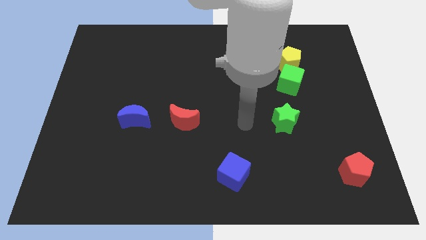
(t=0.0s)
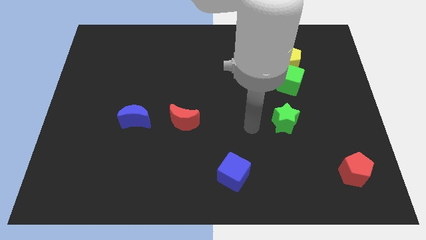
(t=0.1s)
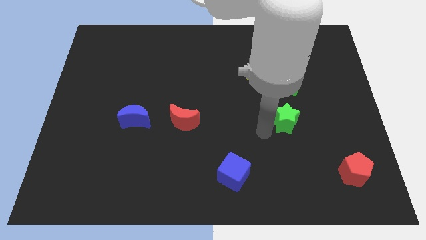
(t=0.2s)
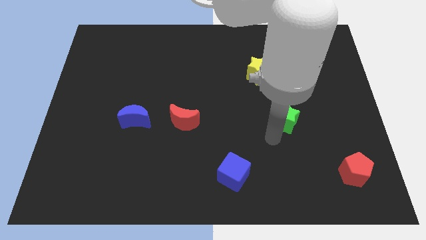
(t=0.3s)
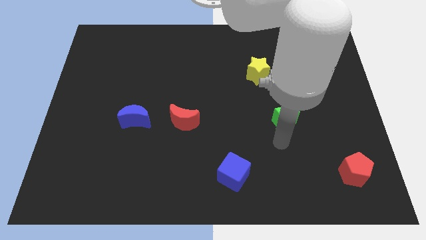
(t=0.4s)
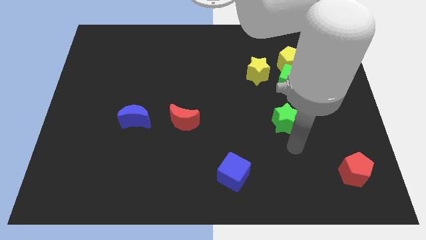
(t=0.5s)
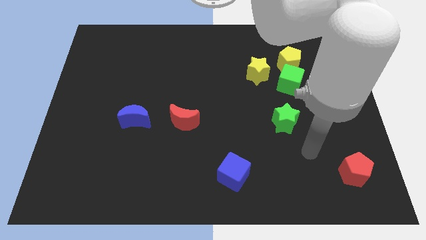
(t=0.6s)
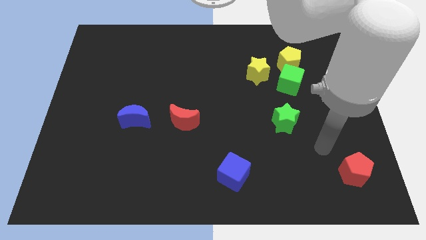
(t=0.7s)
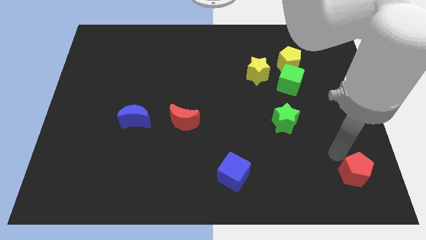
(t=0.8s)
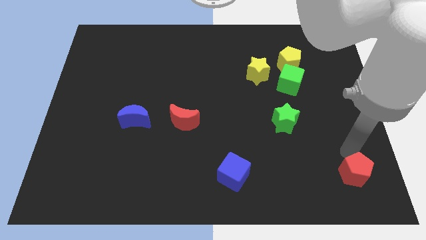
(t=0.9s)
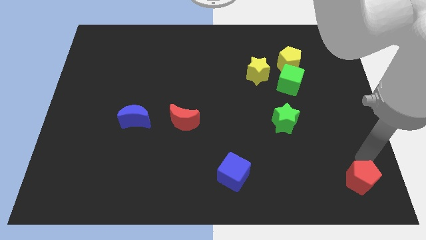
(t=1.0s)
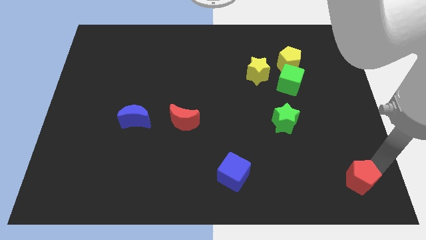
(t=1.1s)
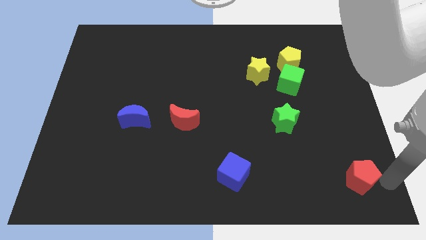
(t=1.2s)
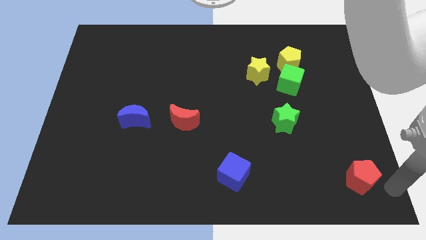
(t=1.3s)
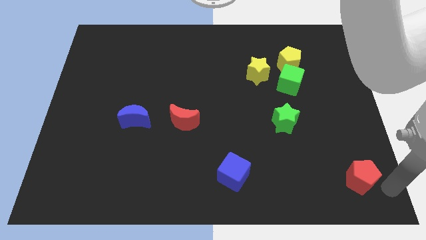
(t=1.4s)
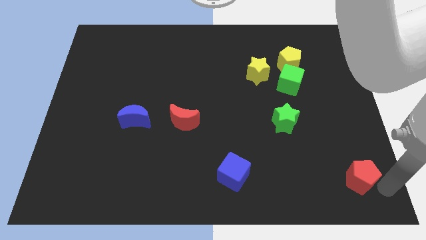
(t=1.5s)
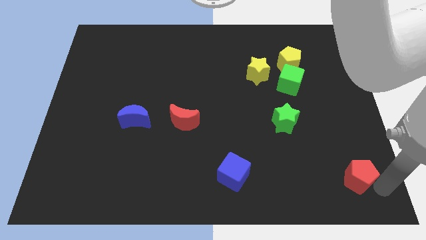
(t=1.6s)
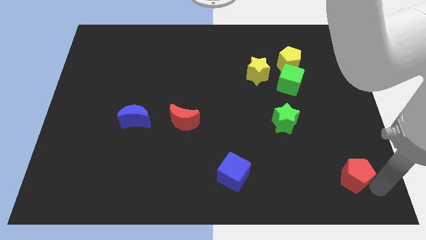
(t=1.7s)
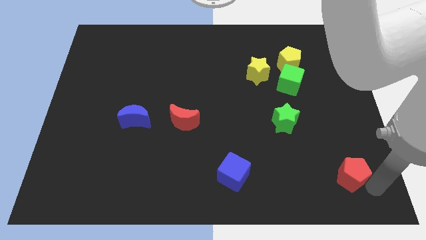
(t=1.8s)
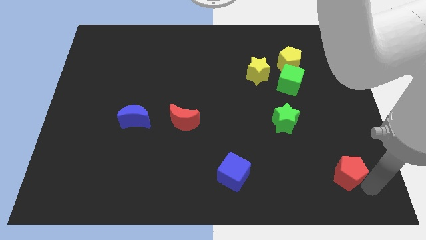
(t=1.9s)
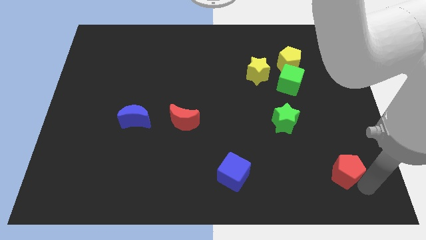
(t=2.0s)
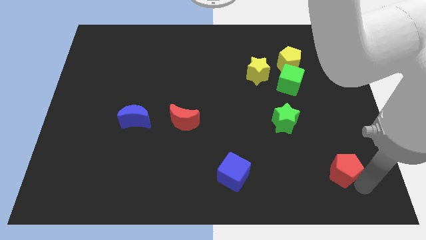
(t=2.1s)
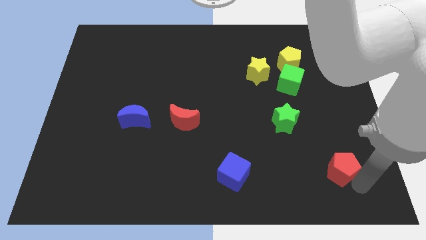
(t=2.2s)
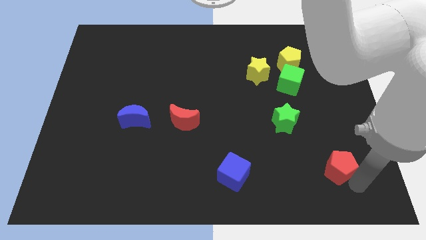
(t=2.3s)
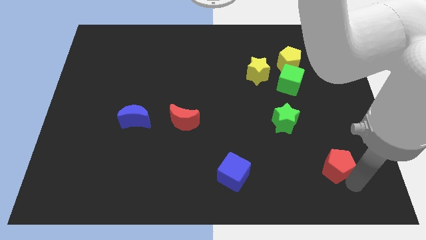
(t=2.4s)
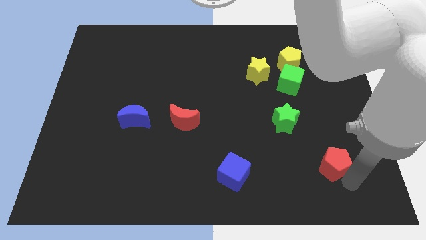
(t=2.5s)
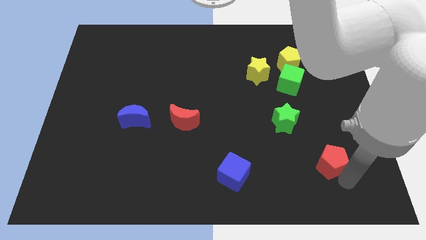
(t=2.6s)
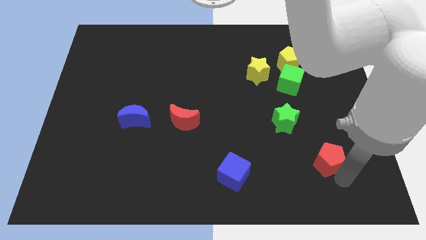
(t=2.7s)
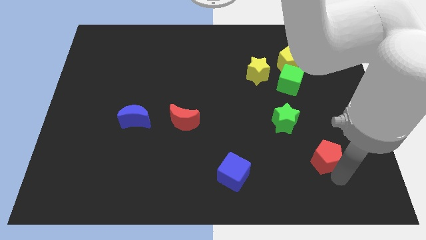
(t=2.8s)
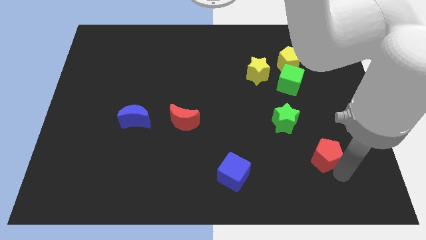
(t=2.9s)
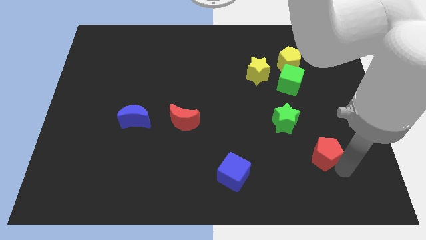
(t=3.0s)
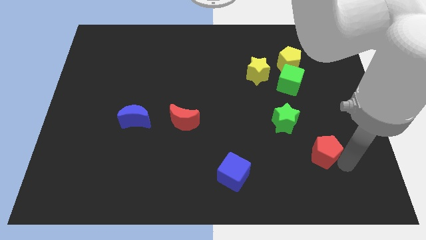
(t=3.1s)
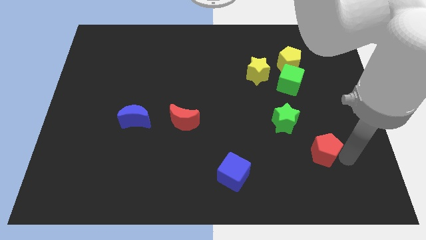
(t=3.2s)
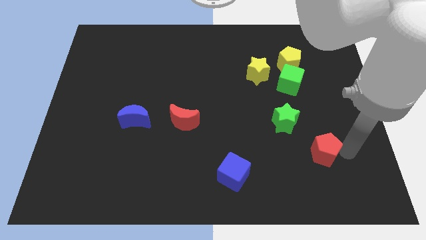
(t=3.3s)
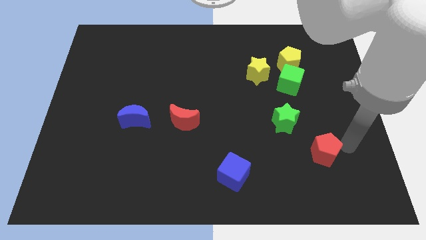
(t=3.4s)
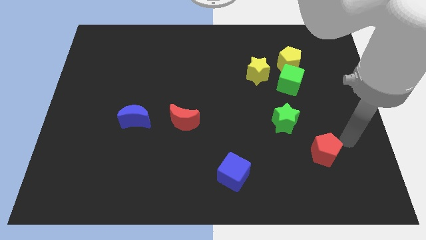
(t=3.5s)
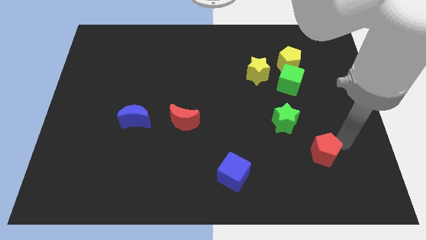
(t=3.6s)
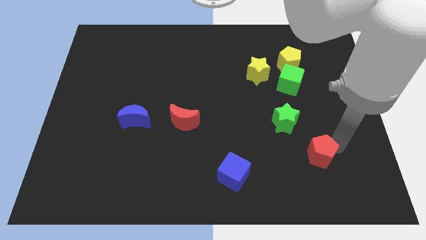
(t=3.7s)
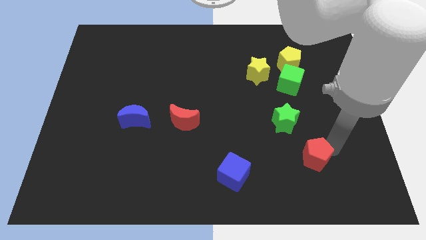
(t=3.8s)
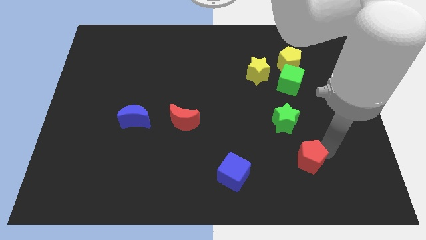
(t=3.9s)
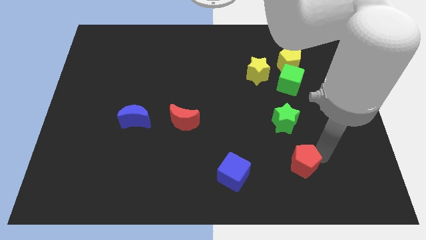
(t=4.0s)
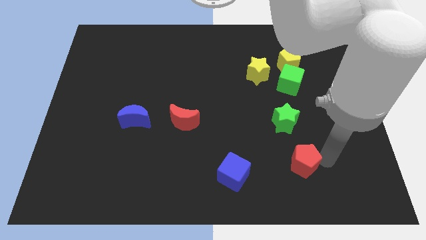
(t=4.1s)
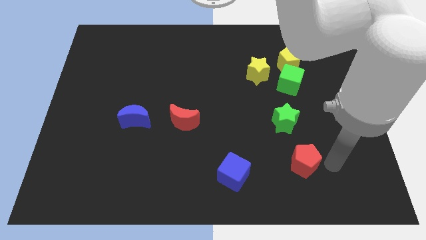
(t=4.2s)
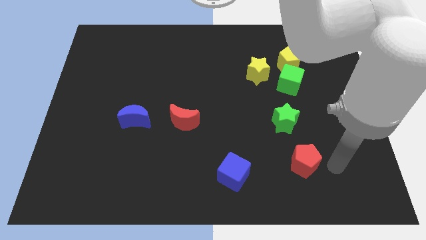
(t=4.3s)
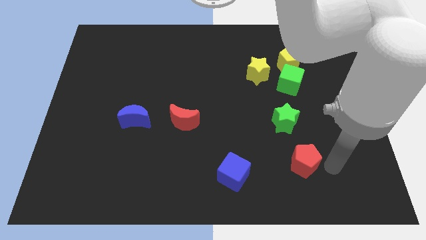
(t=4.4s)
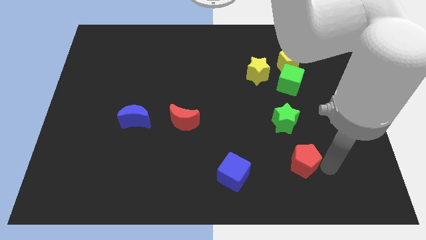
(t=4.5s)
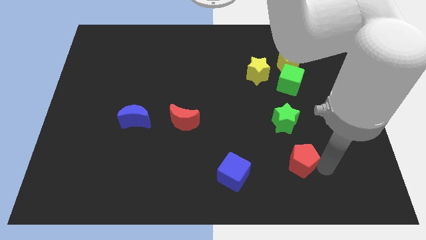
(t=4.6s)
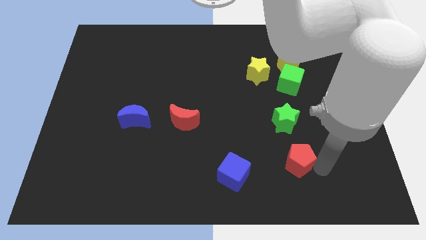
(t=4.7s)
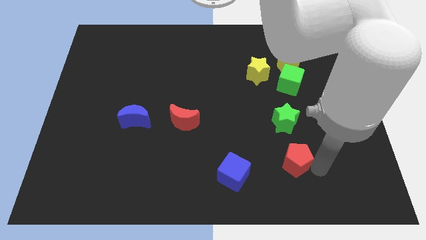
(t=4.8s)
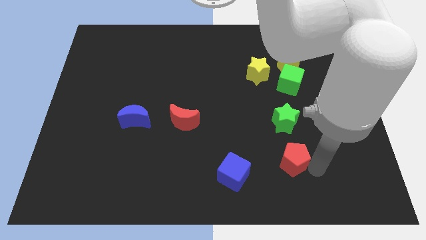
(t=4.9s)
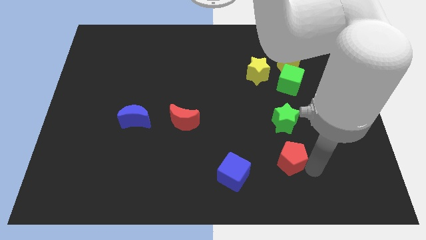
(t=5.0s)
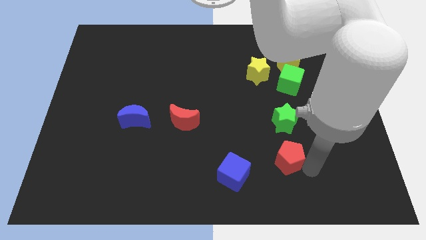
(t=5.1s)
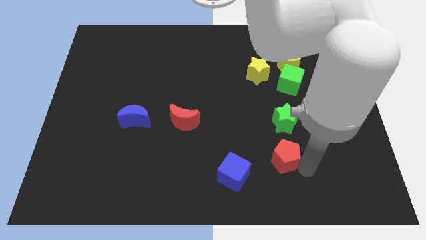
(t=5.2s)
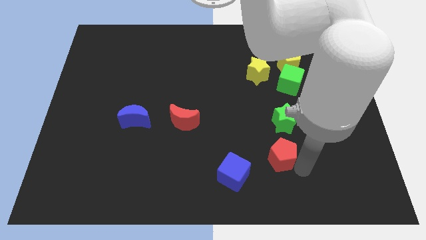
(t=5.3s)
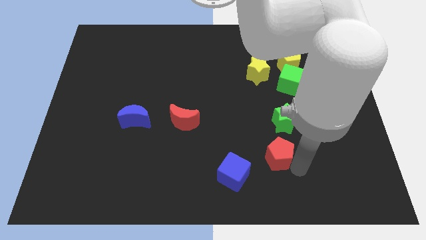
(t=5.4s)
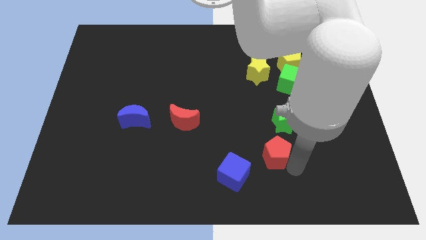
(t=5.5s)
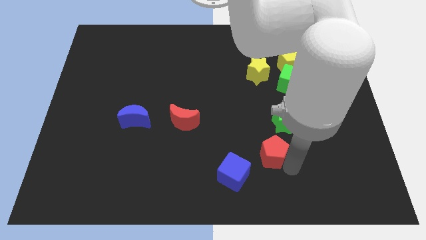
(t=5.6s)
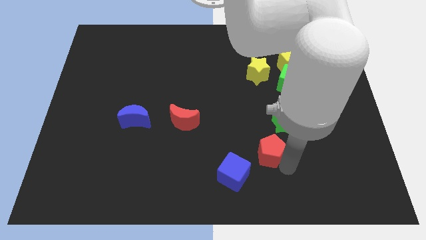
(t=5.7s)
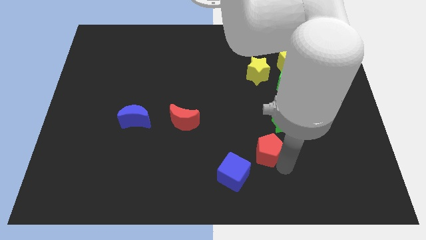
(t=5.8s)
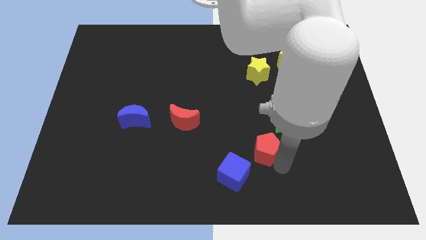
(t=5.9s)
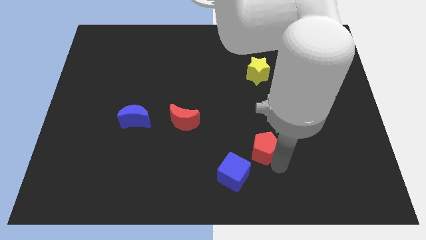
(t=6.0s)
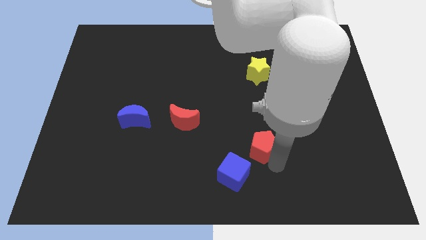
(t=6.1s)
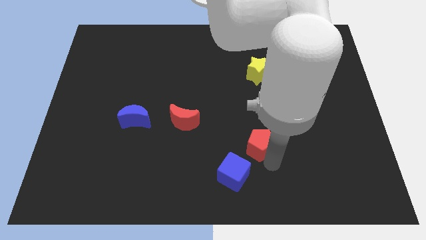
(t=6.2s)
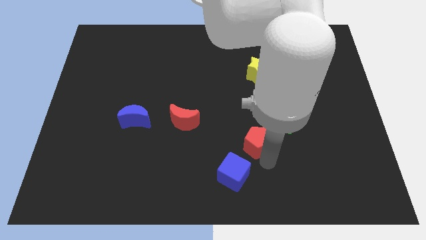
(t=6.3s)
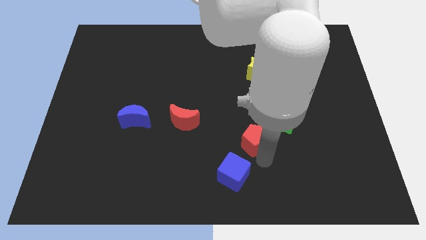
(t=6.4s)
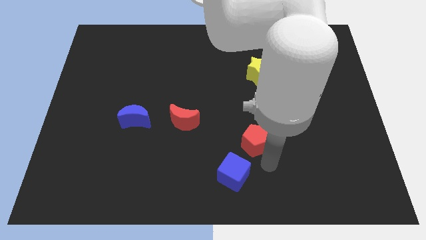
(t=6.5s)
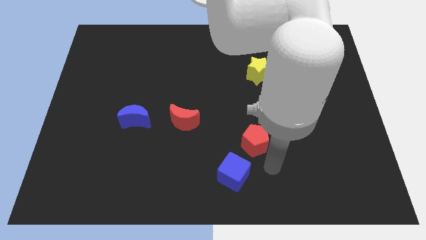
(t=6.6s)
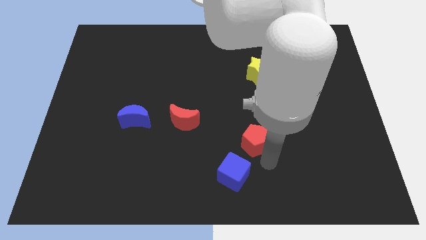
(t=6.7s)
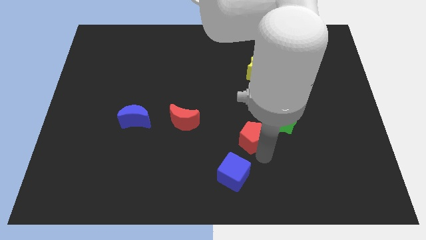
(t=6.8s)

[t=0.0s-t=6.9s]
put the red pentagon to the left of the green star

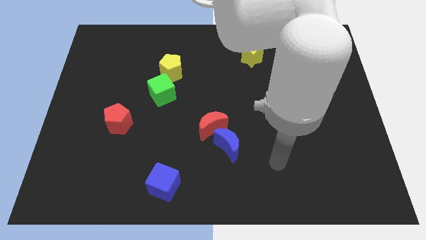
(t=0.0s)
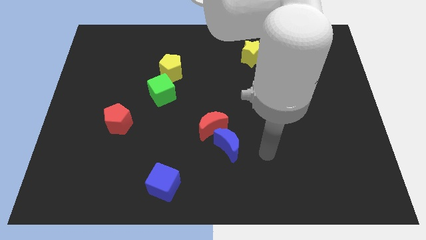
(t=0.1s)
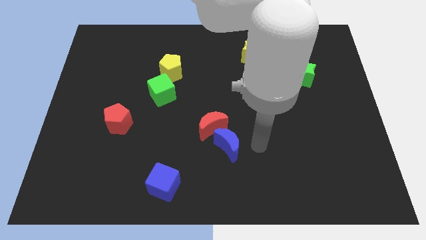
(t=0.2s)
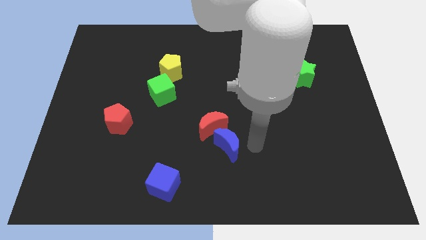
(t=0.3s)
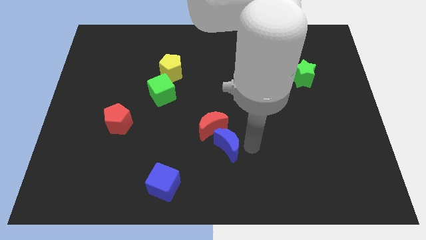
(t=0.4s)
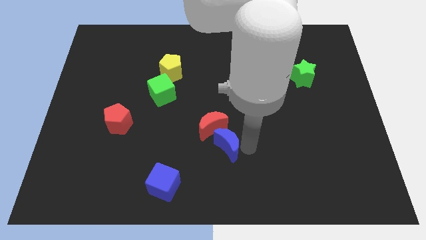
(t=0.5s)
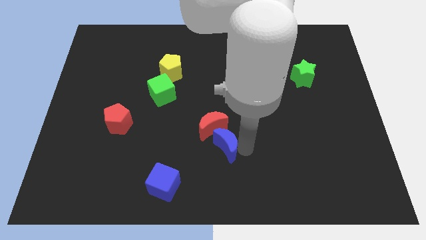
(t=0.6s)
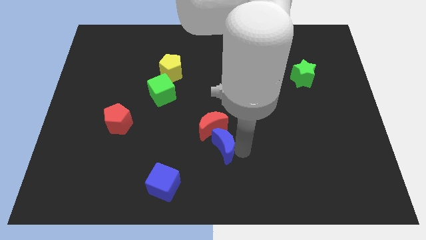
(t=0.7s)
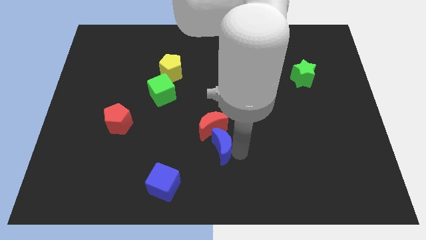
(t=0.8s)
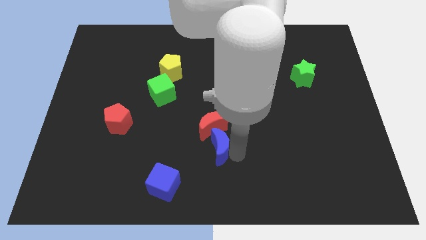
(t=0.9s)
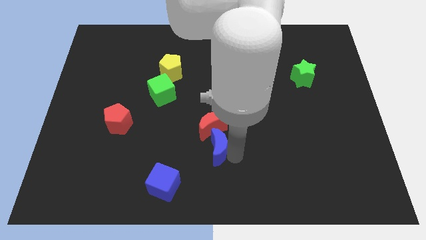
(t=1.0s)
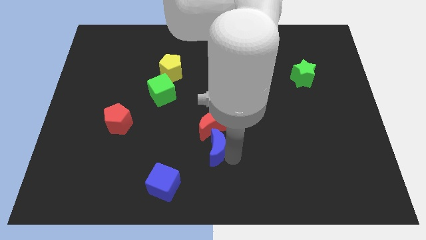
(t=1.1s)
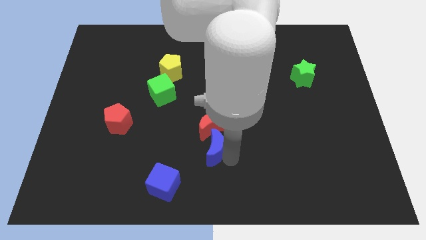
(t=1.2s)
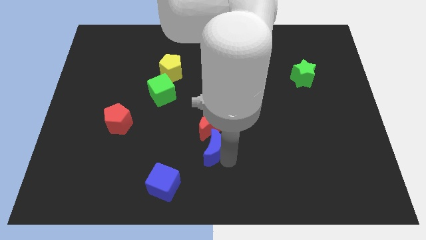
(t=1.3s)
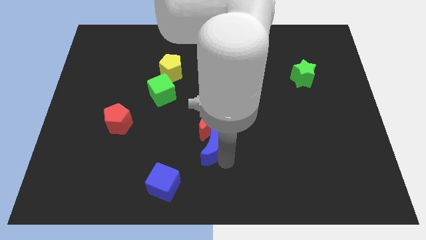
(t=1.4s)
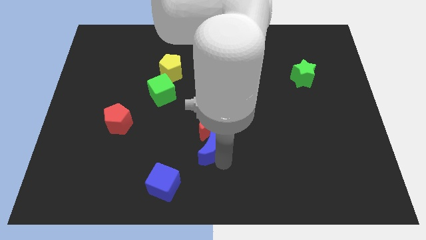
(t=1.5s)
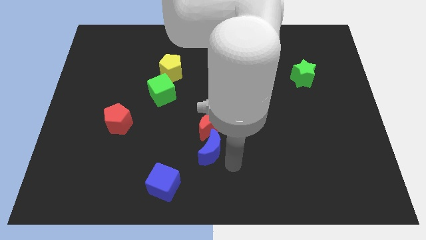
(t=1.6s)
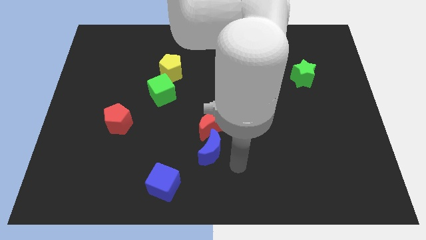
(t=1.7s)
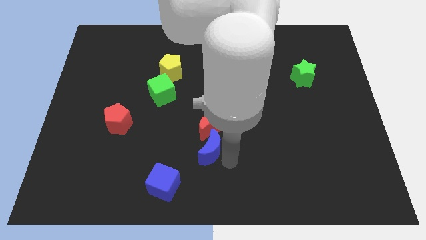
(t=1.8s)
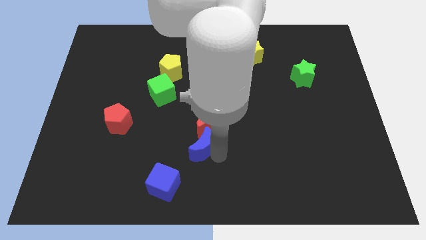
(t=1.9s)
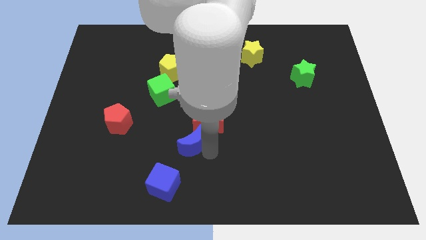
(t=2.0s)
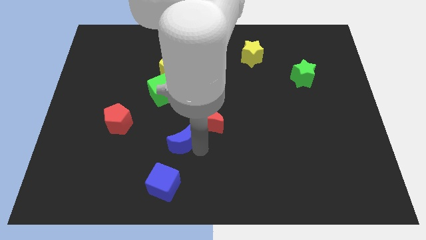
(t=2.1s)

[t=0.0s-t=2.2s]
move the blue moon left of the red moon
